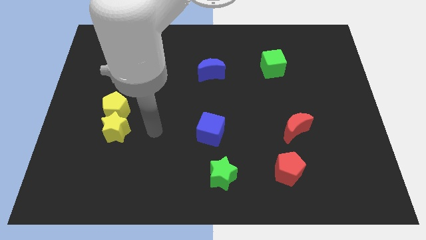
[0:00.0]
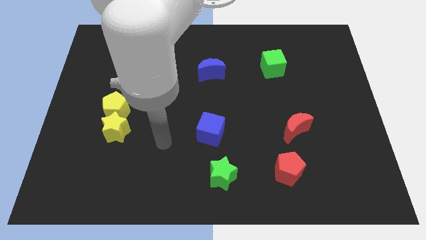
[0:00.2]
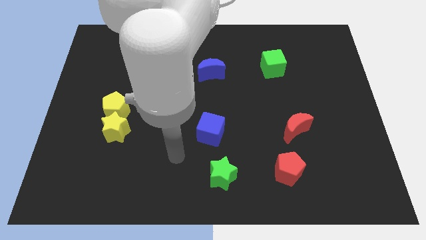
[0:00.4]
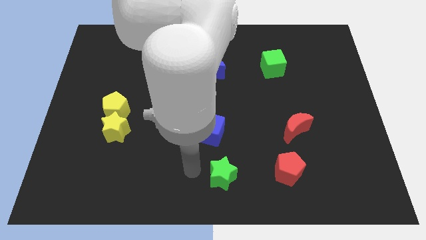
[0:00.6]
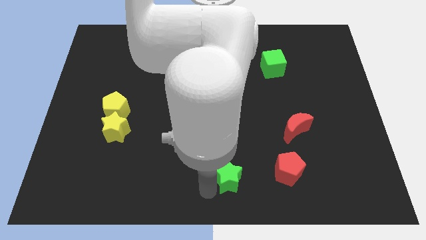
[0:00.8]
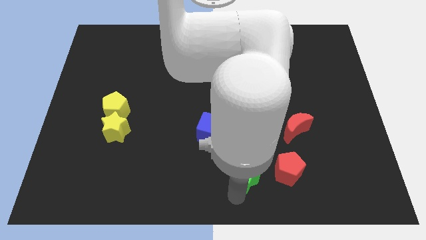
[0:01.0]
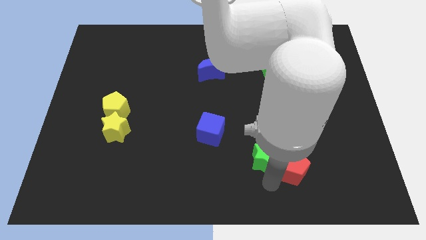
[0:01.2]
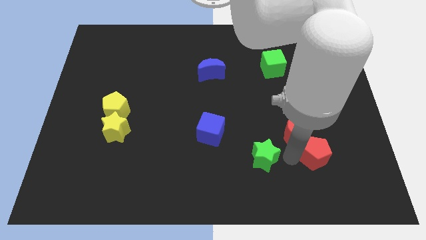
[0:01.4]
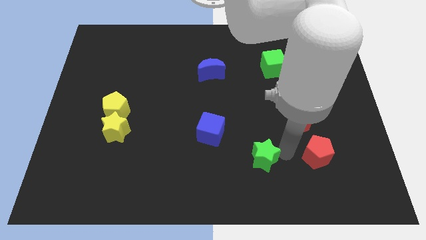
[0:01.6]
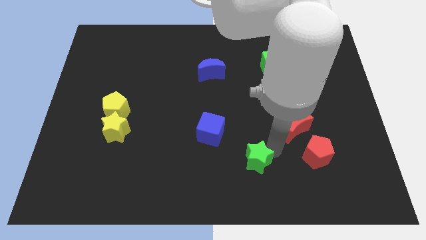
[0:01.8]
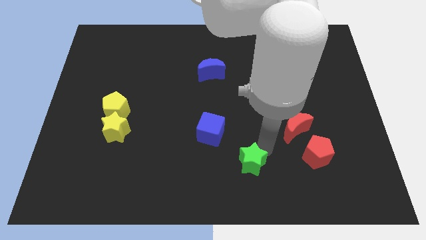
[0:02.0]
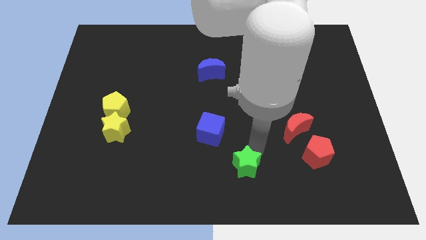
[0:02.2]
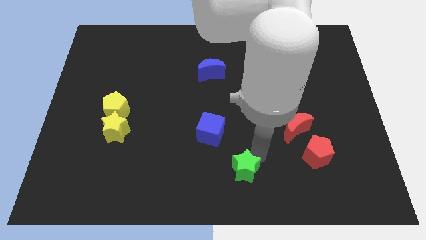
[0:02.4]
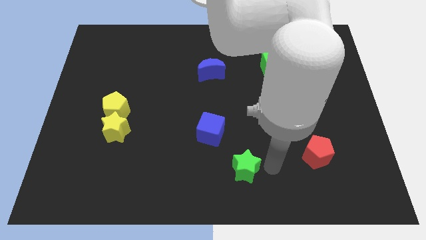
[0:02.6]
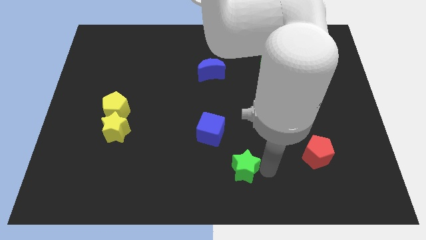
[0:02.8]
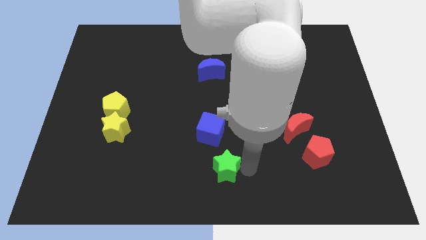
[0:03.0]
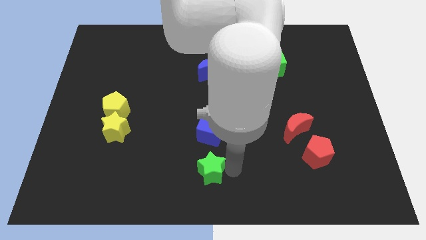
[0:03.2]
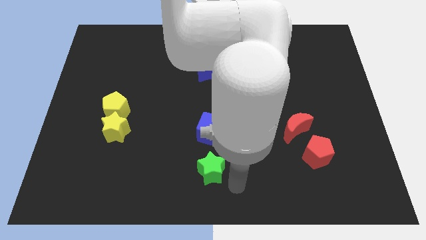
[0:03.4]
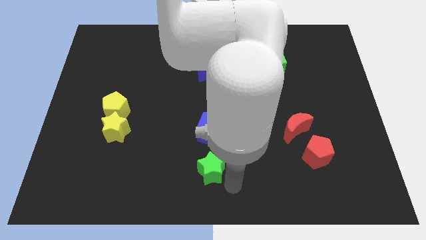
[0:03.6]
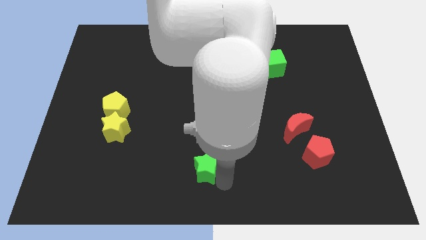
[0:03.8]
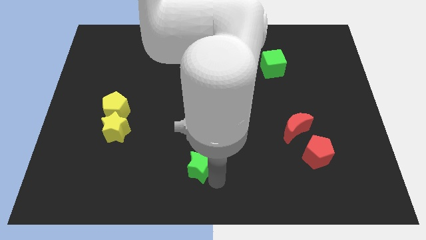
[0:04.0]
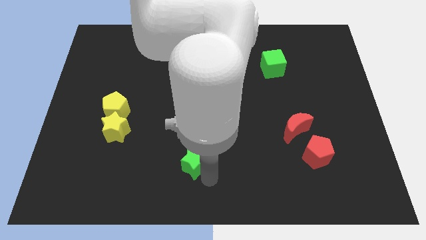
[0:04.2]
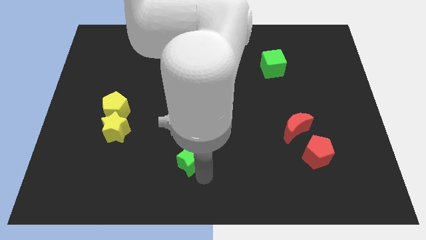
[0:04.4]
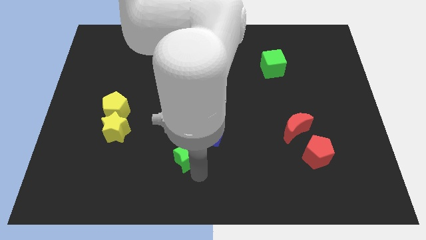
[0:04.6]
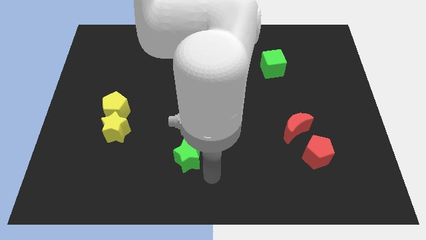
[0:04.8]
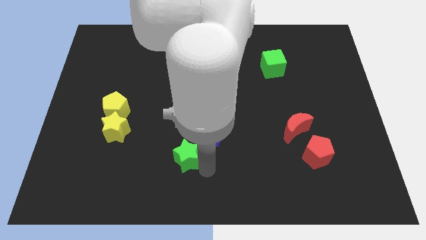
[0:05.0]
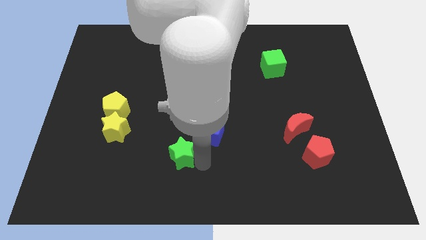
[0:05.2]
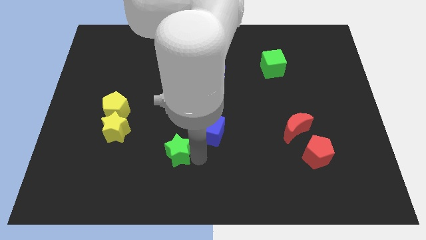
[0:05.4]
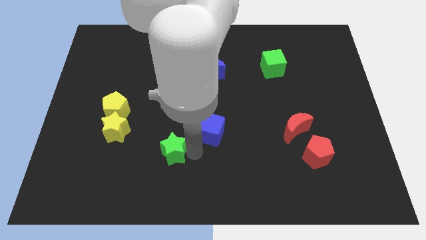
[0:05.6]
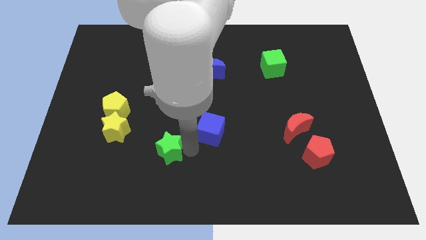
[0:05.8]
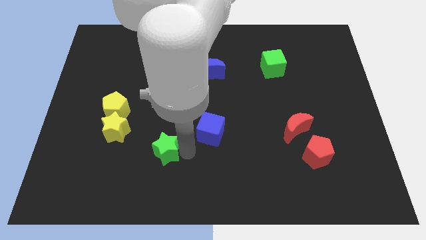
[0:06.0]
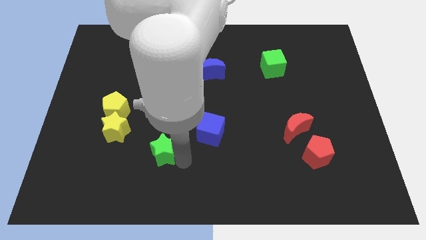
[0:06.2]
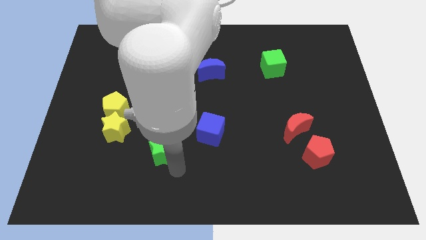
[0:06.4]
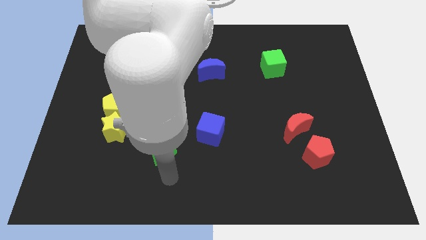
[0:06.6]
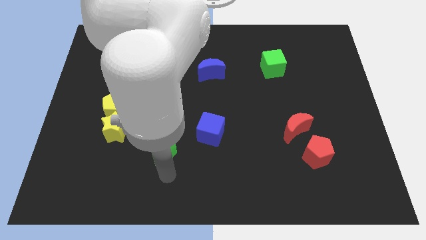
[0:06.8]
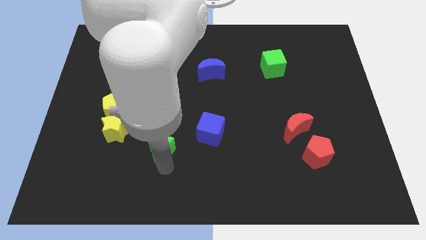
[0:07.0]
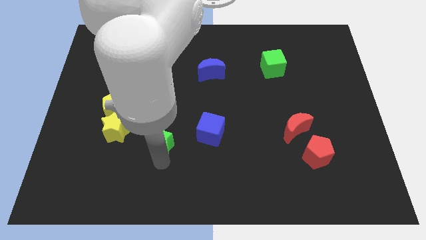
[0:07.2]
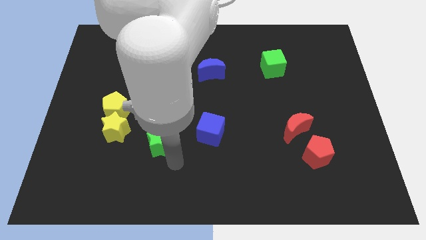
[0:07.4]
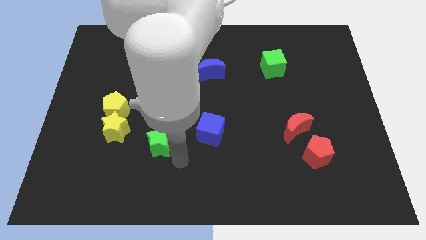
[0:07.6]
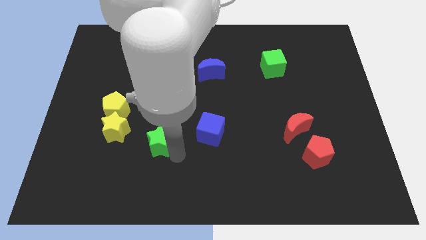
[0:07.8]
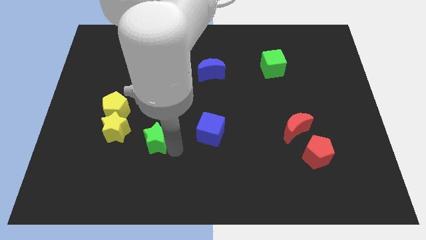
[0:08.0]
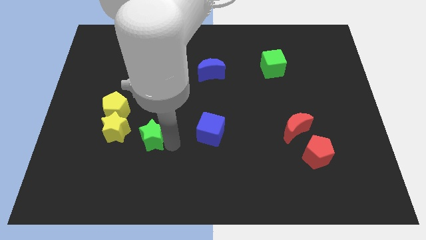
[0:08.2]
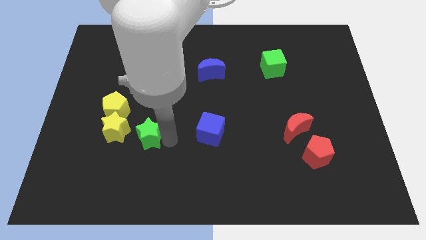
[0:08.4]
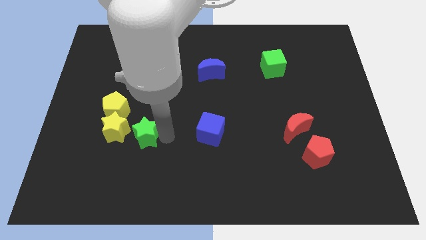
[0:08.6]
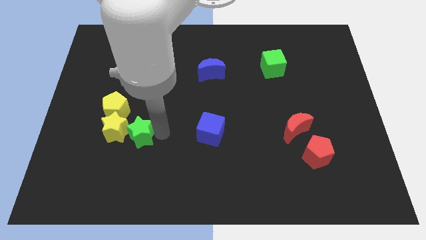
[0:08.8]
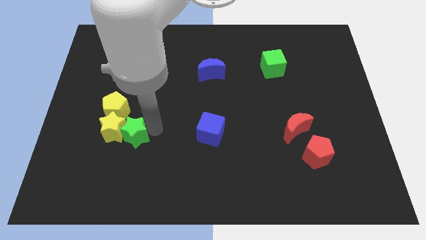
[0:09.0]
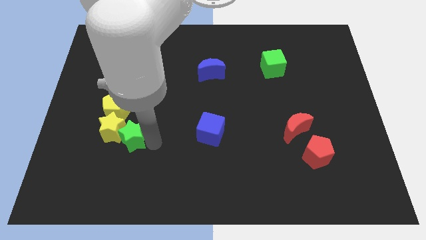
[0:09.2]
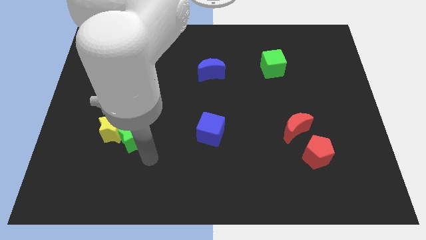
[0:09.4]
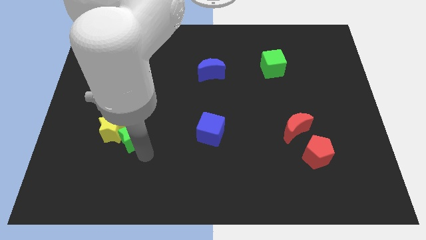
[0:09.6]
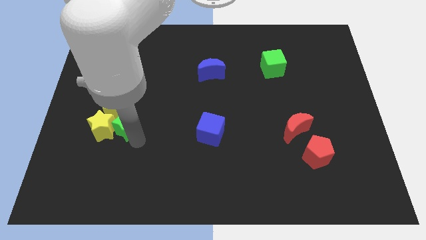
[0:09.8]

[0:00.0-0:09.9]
push the green star close to the yellow pentagon

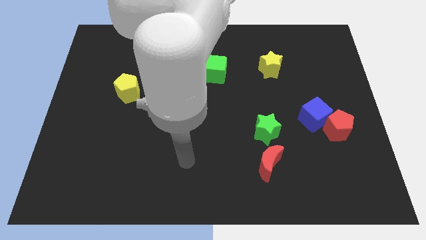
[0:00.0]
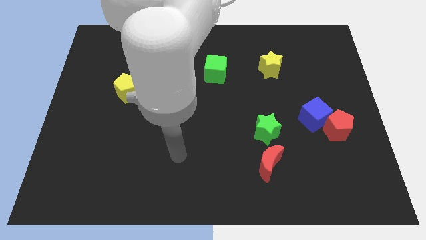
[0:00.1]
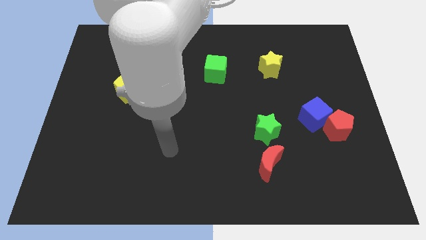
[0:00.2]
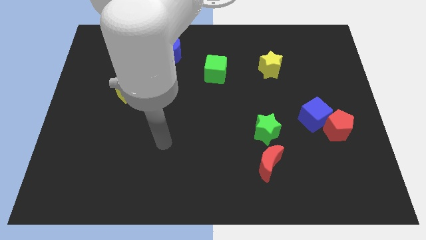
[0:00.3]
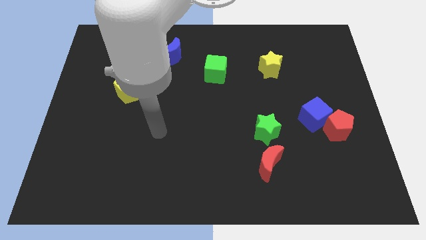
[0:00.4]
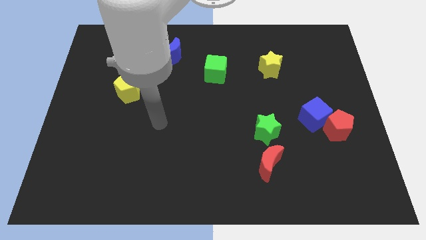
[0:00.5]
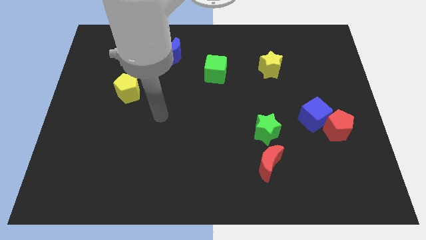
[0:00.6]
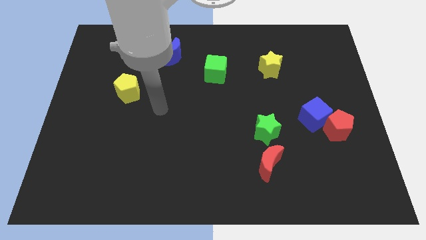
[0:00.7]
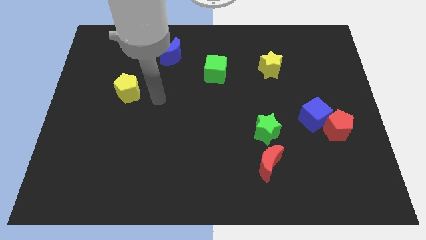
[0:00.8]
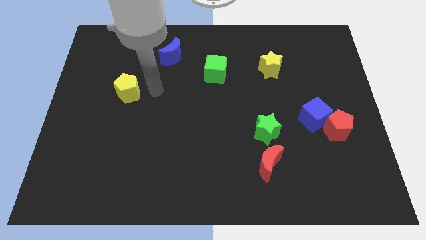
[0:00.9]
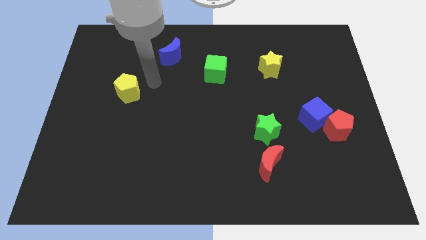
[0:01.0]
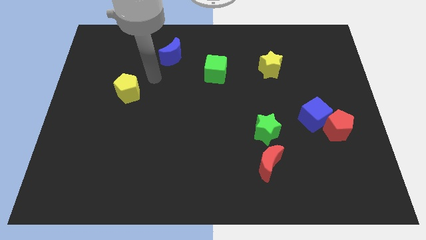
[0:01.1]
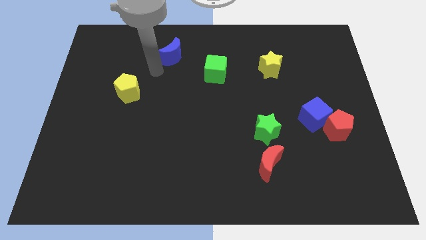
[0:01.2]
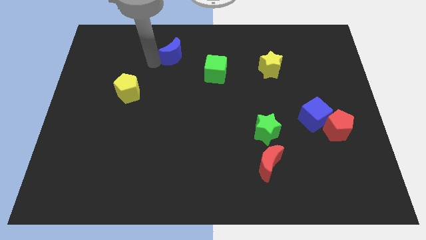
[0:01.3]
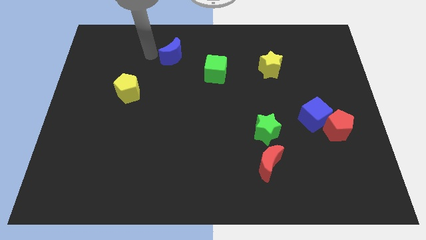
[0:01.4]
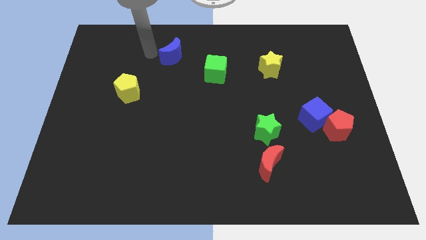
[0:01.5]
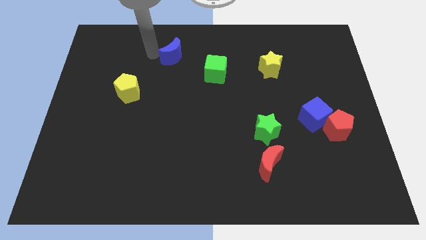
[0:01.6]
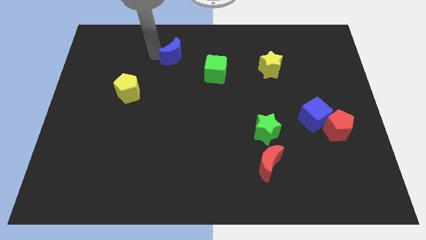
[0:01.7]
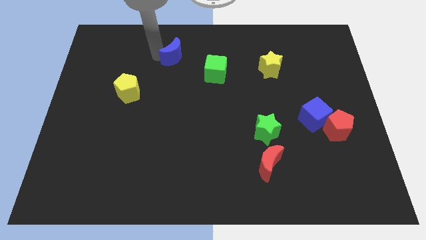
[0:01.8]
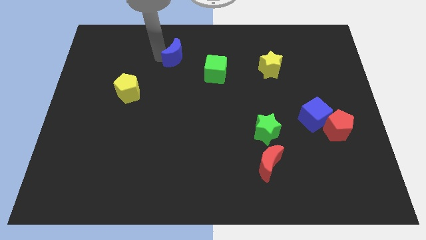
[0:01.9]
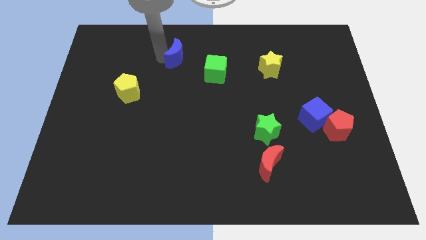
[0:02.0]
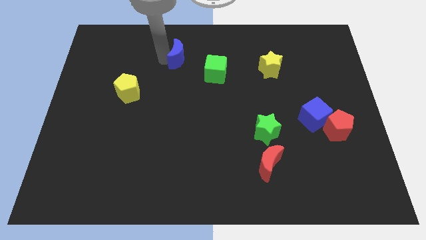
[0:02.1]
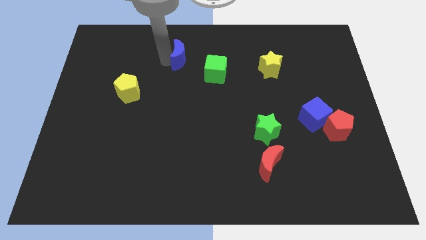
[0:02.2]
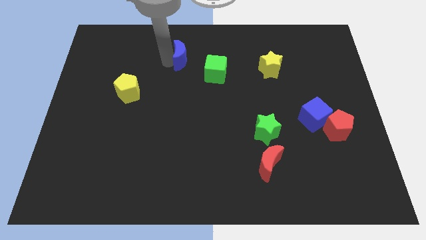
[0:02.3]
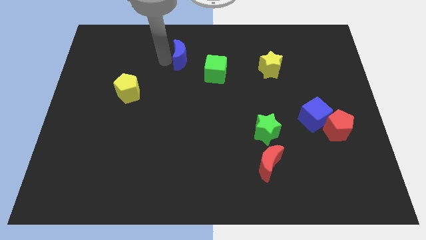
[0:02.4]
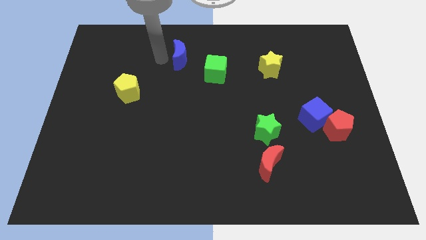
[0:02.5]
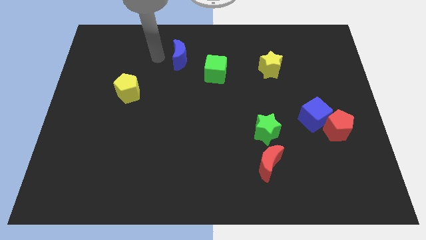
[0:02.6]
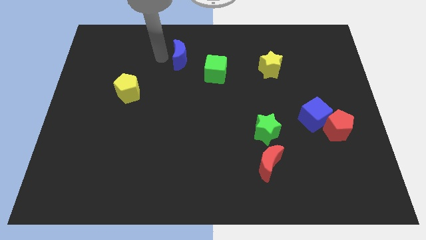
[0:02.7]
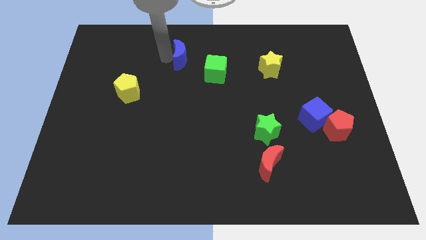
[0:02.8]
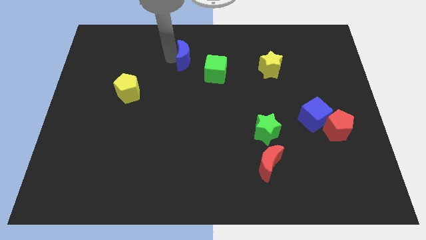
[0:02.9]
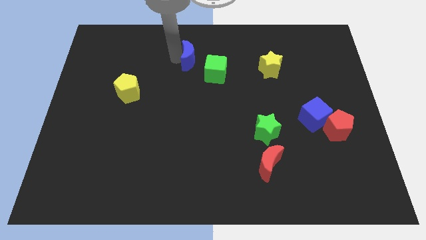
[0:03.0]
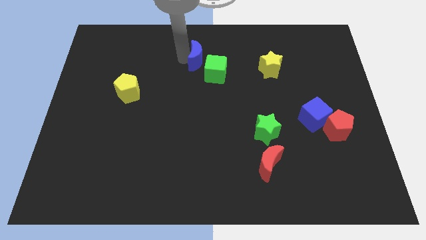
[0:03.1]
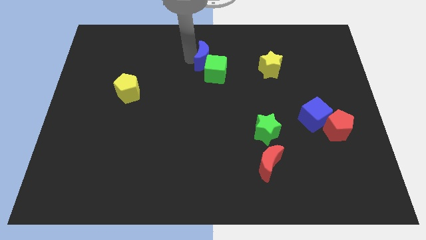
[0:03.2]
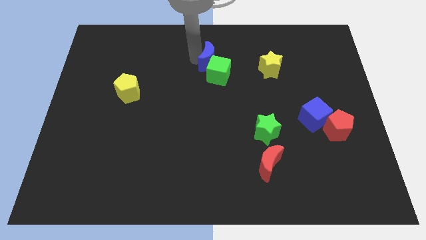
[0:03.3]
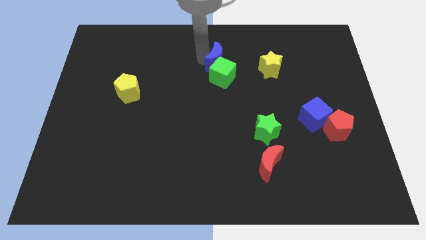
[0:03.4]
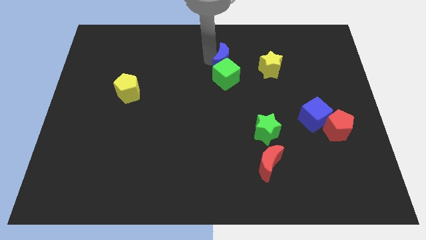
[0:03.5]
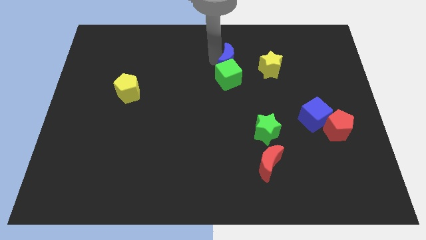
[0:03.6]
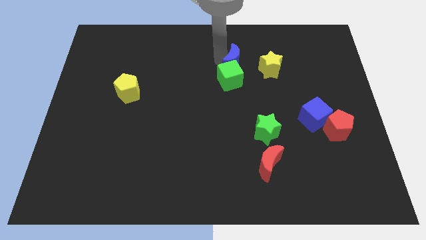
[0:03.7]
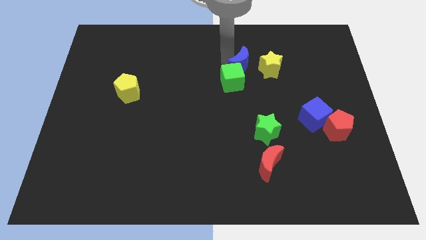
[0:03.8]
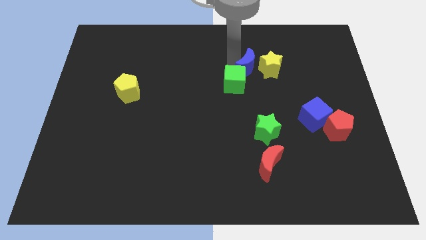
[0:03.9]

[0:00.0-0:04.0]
move the blue moon next to the yellow star
